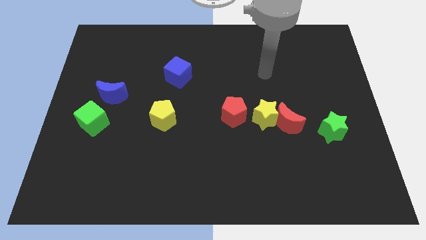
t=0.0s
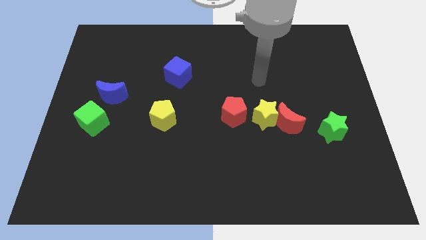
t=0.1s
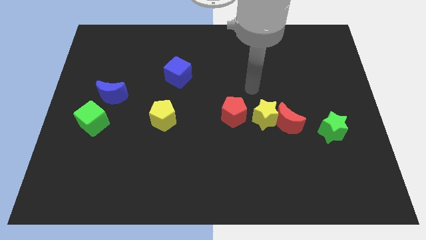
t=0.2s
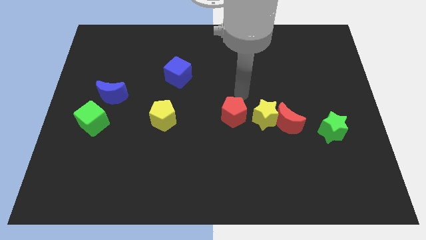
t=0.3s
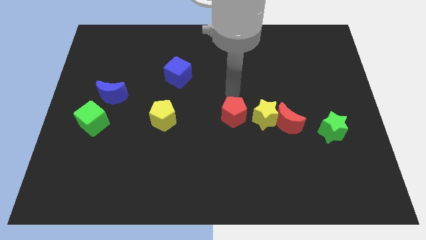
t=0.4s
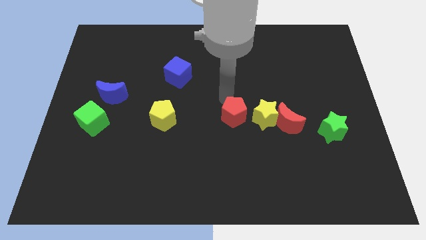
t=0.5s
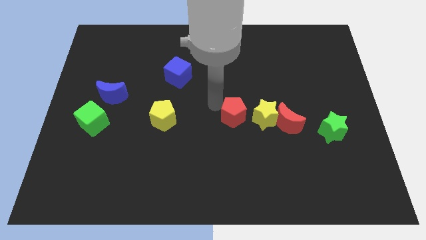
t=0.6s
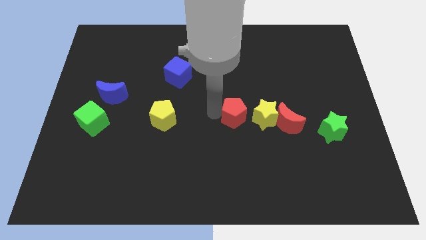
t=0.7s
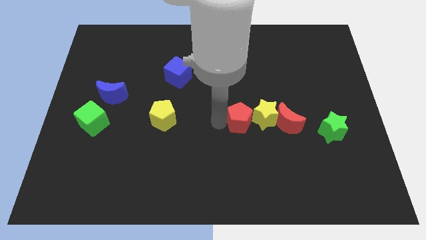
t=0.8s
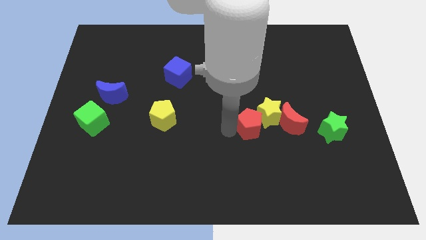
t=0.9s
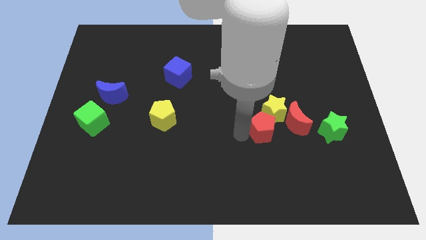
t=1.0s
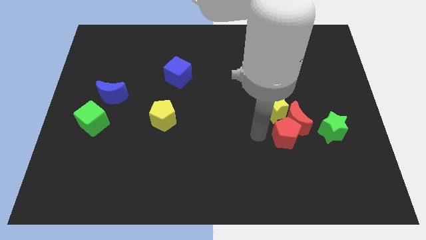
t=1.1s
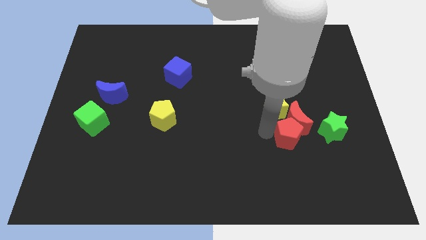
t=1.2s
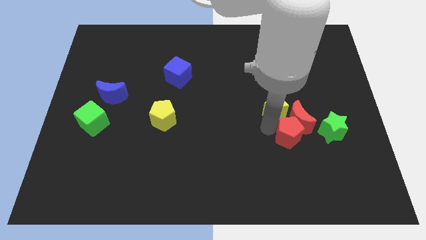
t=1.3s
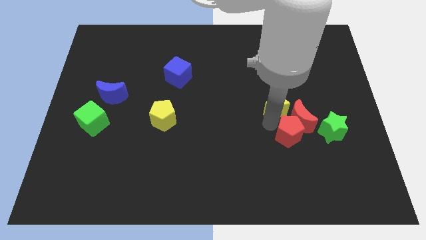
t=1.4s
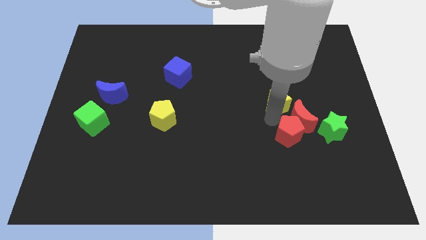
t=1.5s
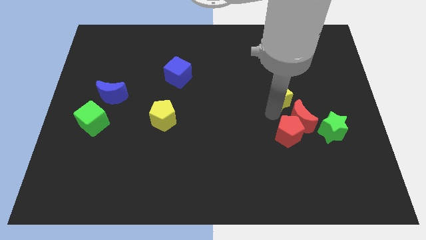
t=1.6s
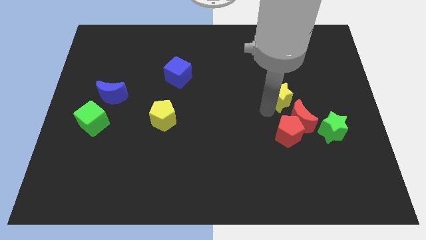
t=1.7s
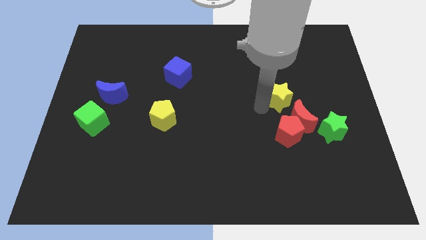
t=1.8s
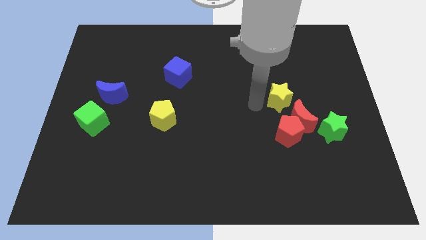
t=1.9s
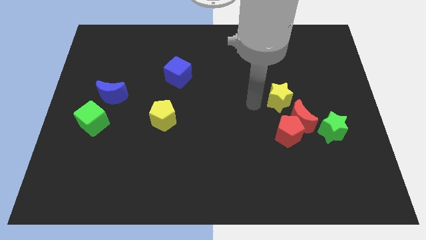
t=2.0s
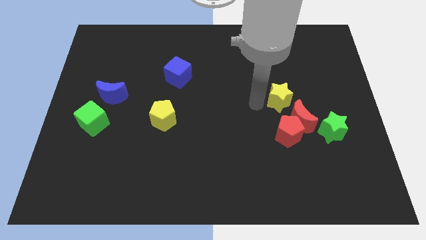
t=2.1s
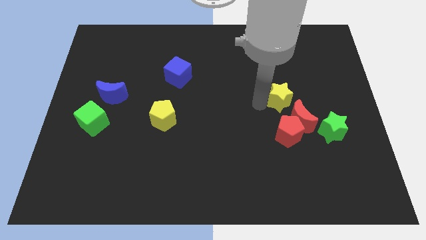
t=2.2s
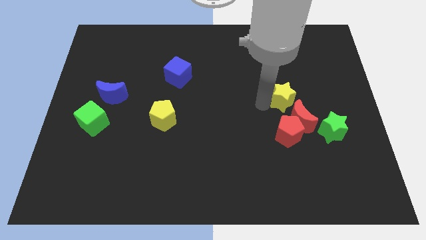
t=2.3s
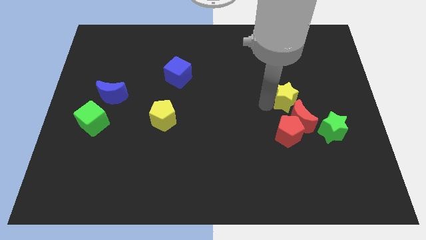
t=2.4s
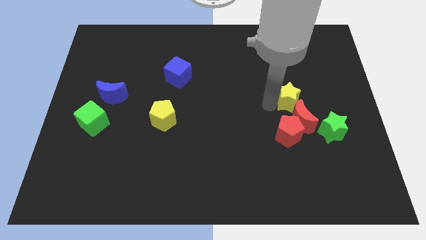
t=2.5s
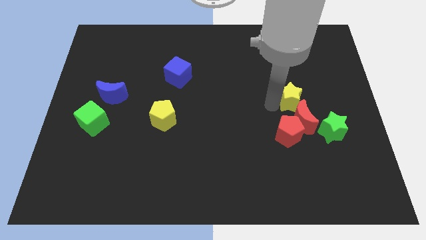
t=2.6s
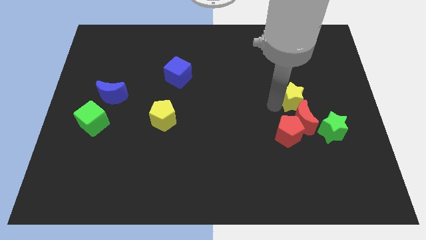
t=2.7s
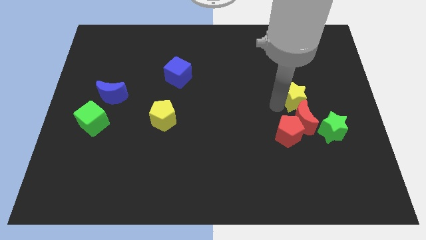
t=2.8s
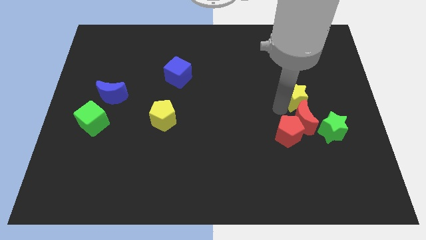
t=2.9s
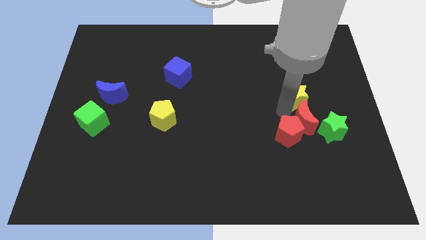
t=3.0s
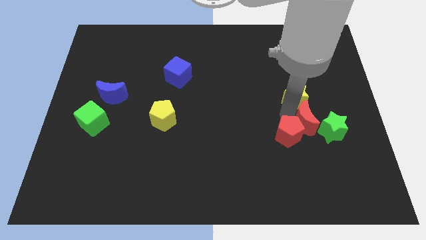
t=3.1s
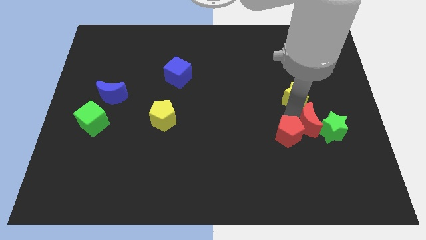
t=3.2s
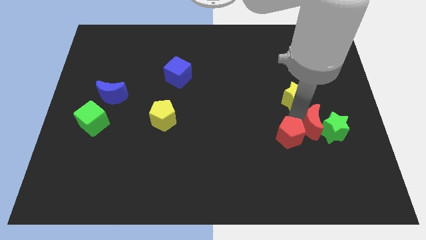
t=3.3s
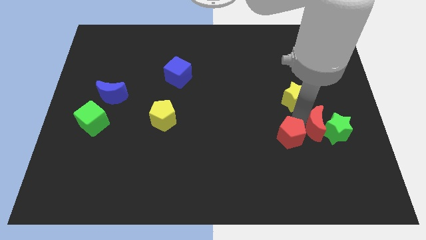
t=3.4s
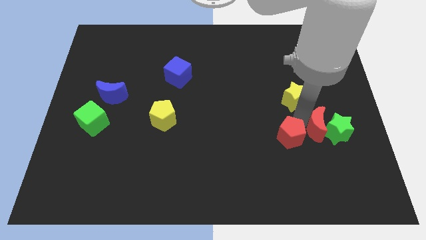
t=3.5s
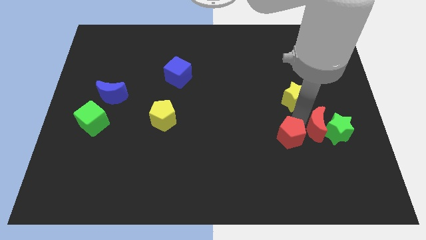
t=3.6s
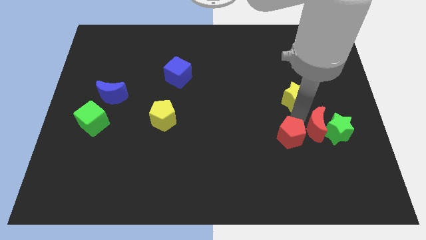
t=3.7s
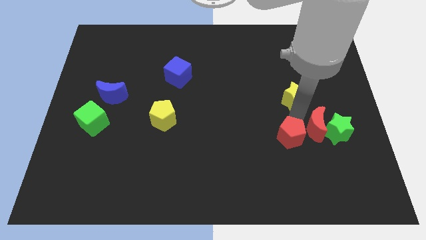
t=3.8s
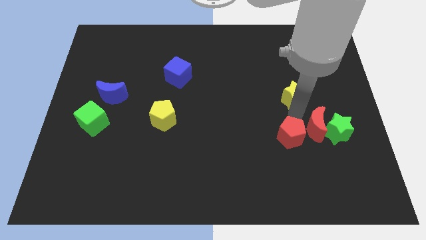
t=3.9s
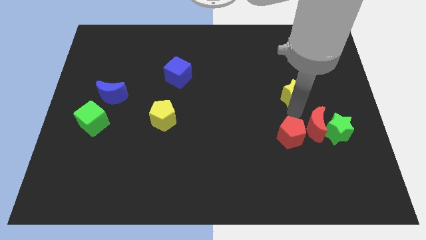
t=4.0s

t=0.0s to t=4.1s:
separate the yellow star from the red moon and red pentagon

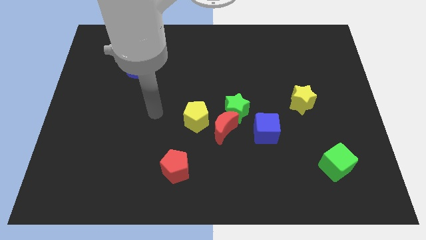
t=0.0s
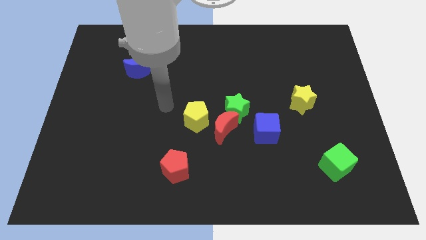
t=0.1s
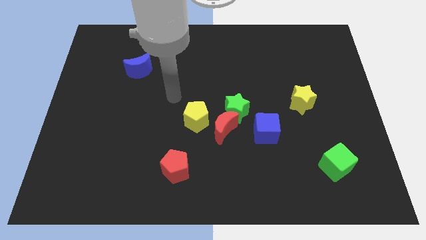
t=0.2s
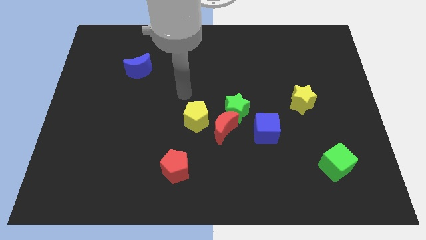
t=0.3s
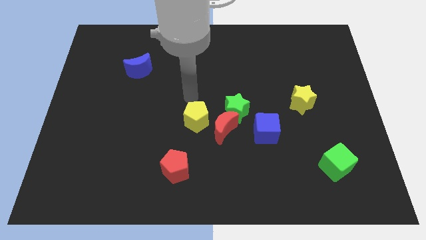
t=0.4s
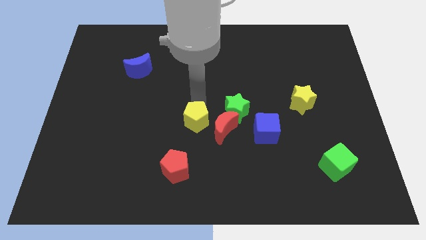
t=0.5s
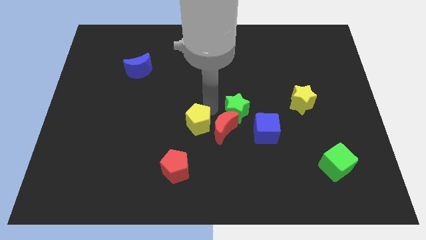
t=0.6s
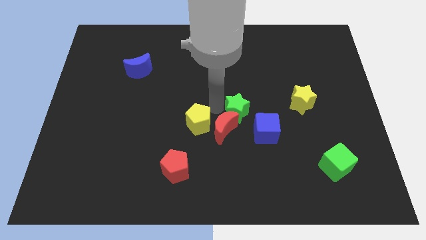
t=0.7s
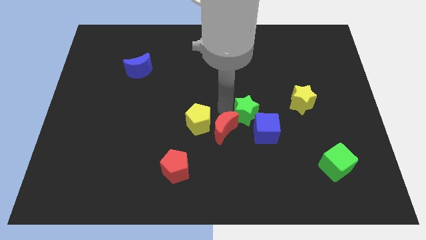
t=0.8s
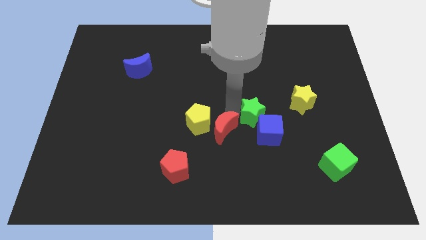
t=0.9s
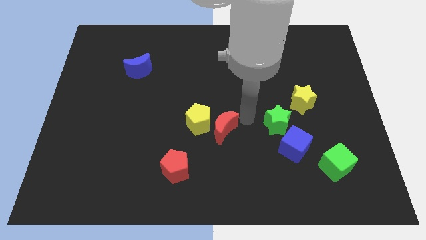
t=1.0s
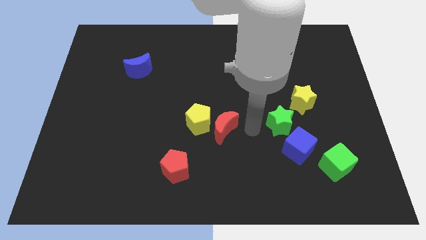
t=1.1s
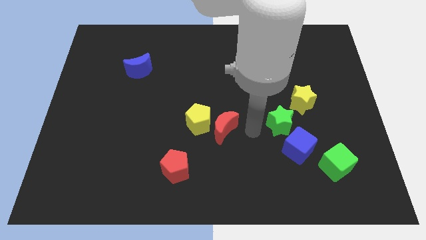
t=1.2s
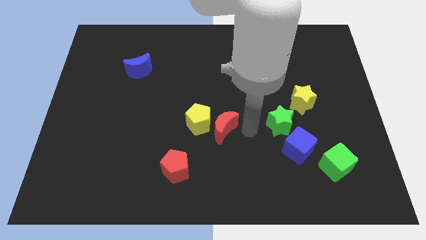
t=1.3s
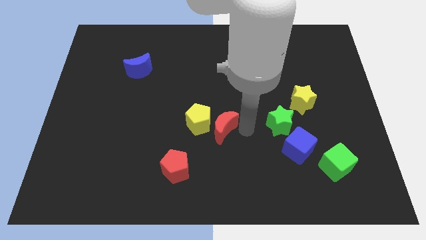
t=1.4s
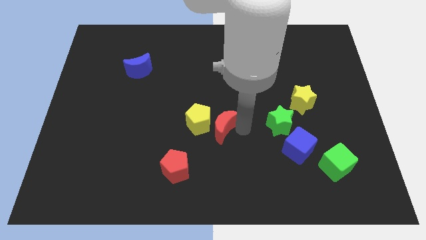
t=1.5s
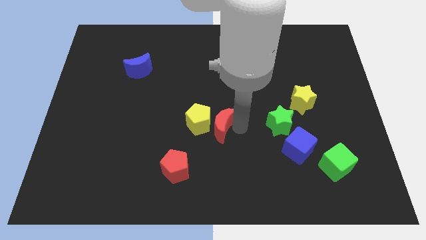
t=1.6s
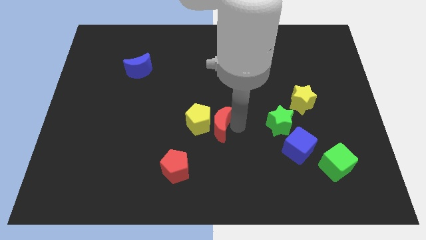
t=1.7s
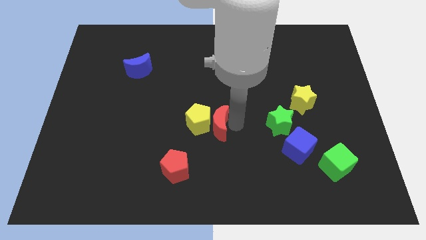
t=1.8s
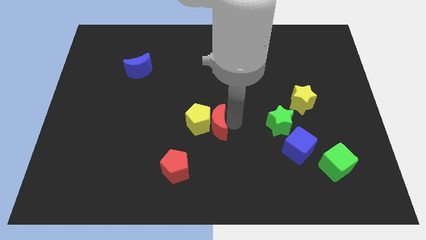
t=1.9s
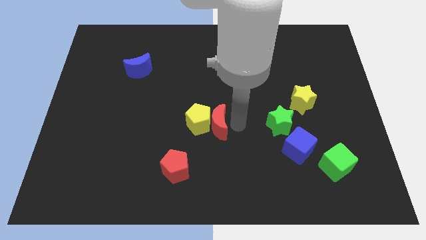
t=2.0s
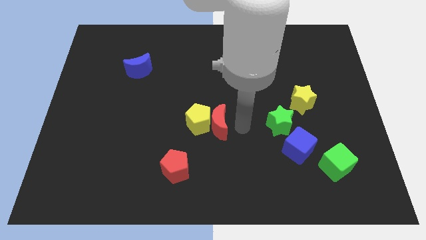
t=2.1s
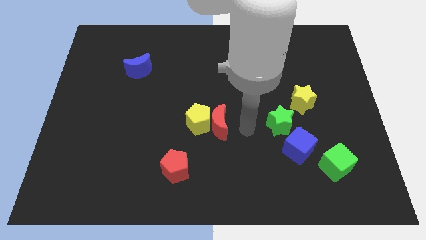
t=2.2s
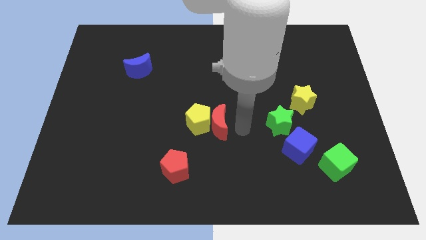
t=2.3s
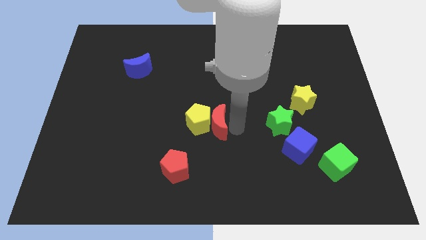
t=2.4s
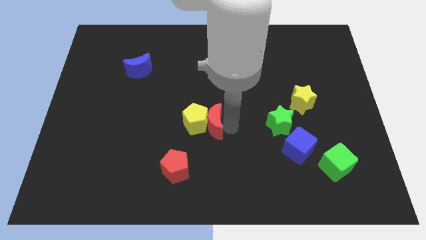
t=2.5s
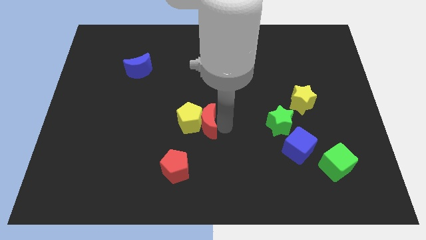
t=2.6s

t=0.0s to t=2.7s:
move the red moon away from the green star, yellow pentagon, and blue cube

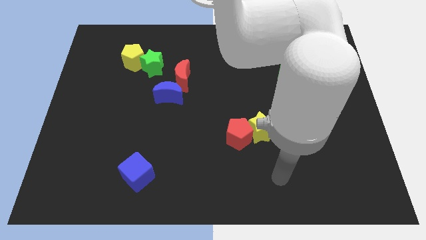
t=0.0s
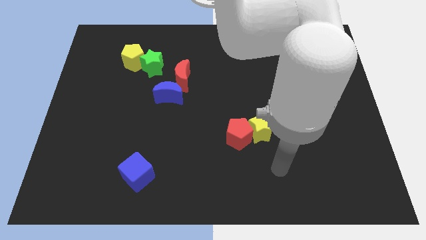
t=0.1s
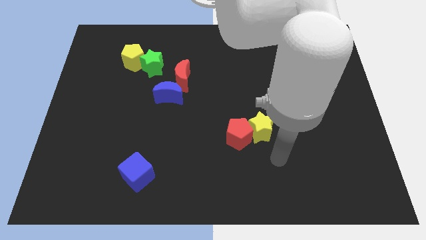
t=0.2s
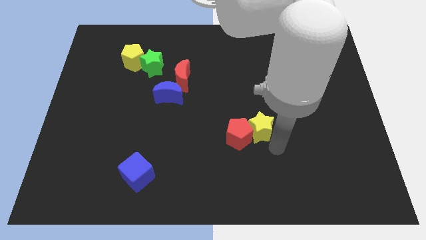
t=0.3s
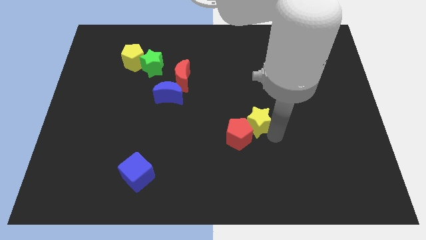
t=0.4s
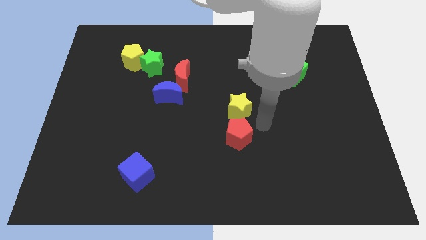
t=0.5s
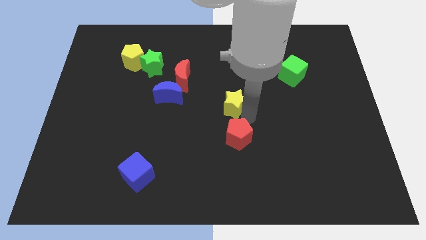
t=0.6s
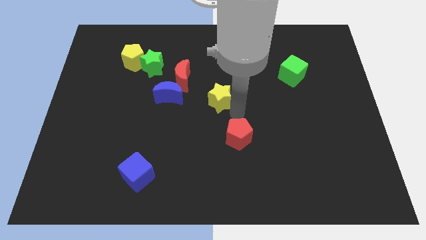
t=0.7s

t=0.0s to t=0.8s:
separate the red pentagon from the yellow star

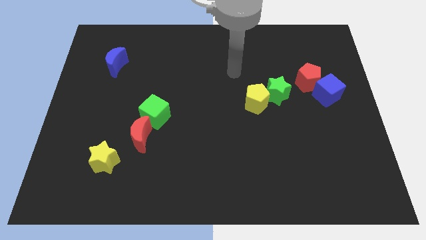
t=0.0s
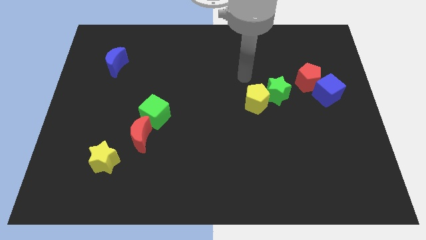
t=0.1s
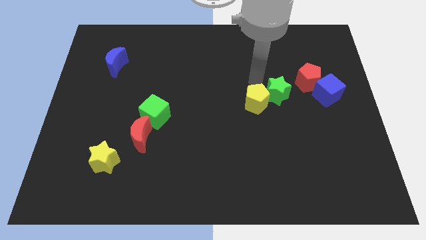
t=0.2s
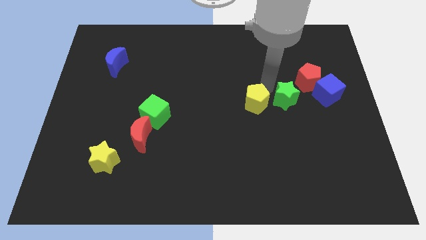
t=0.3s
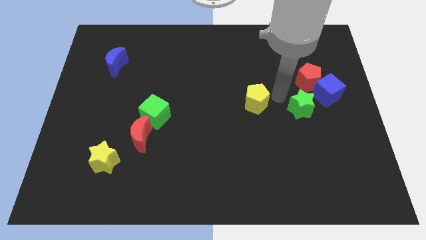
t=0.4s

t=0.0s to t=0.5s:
separate the yellow pentagon from the green star

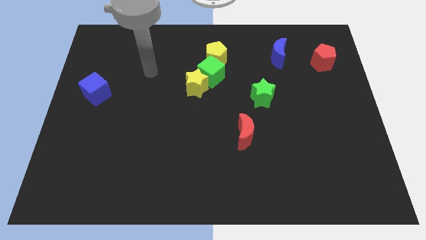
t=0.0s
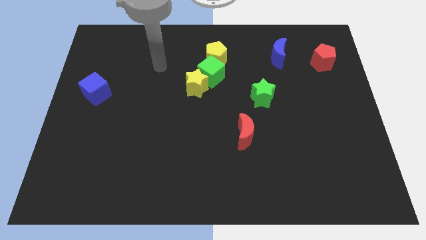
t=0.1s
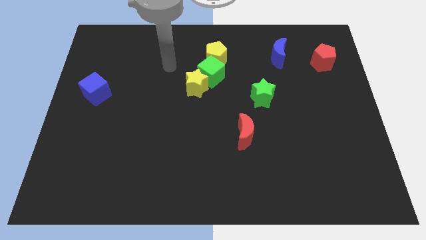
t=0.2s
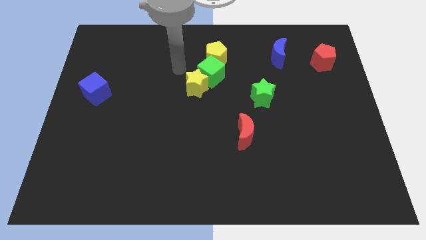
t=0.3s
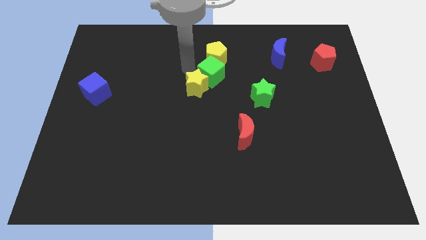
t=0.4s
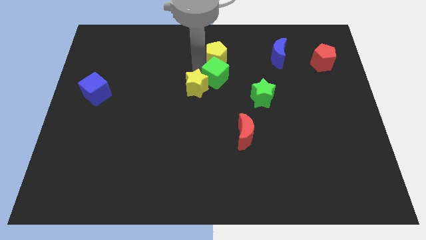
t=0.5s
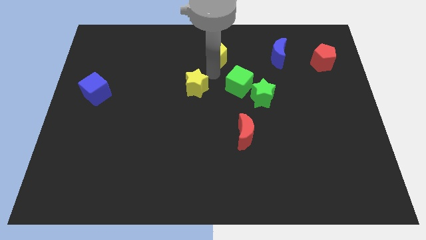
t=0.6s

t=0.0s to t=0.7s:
separate the yellow star from the green cube

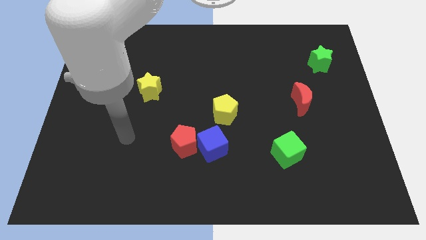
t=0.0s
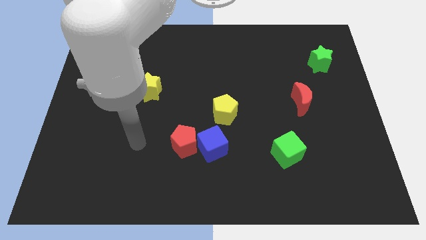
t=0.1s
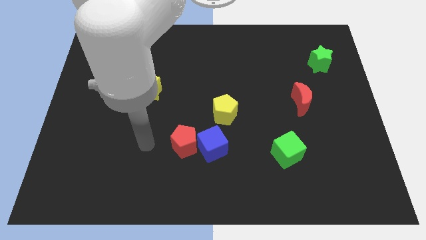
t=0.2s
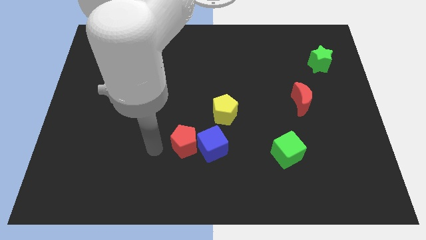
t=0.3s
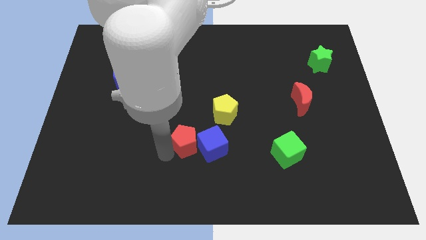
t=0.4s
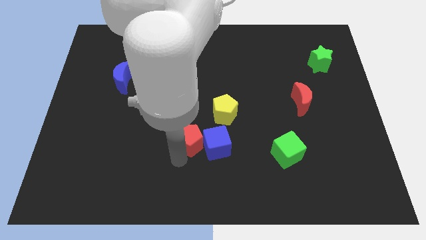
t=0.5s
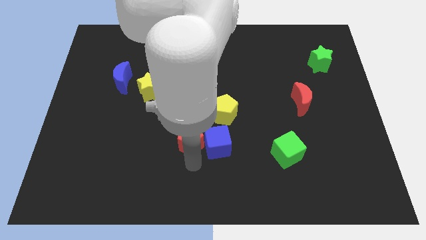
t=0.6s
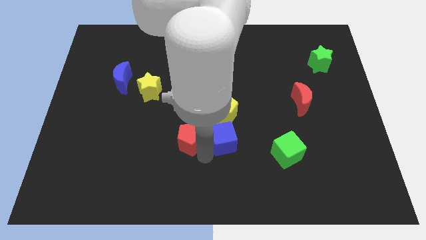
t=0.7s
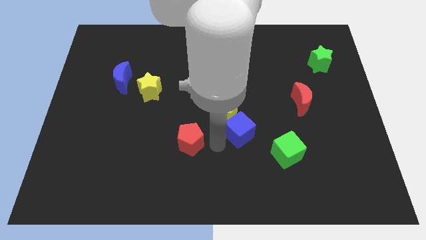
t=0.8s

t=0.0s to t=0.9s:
move the red pentagon away from the blue cube
